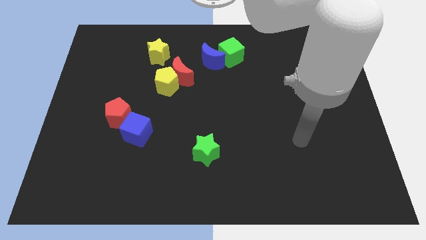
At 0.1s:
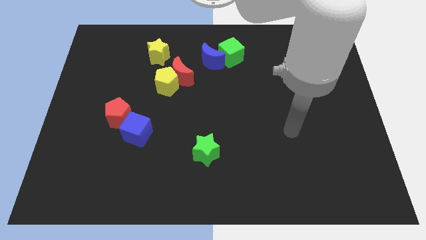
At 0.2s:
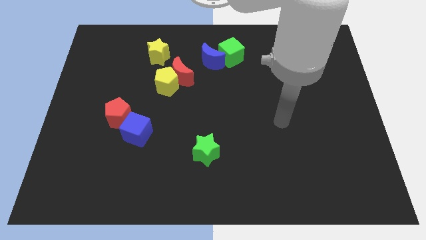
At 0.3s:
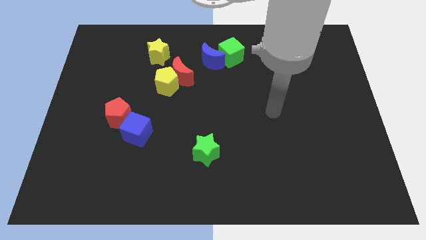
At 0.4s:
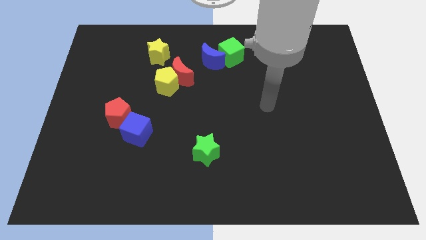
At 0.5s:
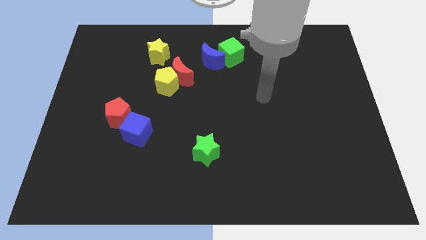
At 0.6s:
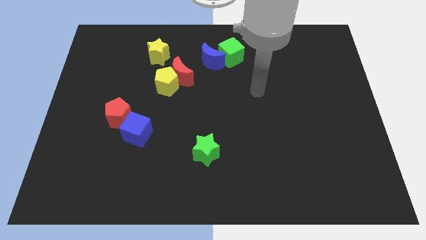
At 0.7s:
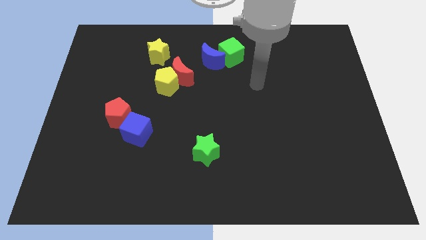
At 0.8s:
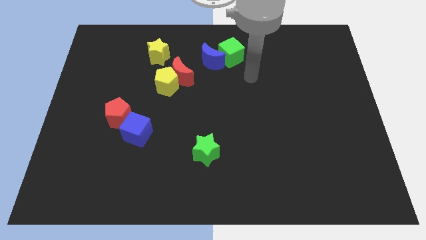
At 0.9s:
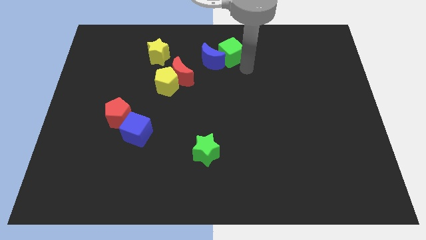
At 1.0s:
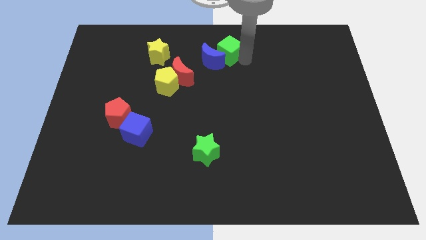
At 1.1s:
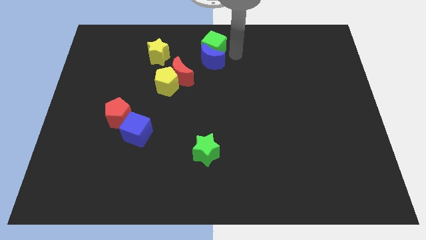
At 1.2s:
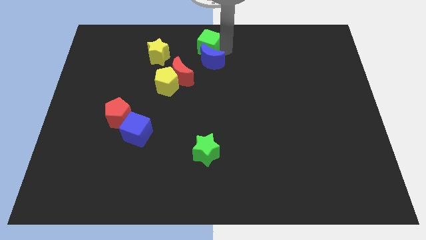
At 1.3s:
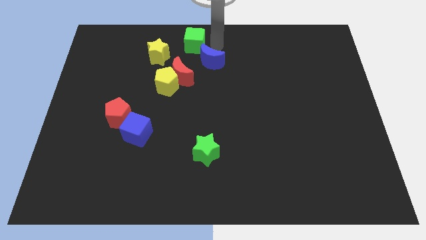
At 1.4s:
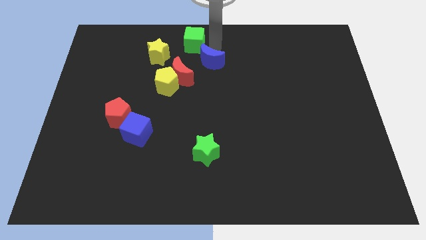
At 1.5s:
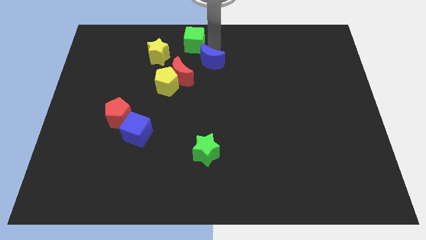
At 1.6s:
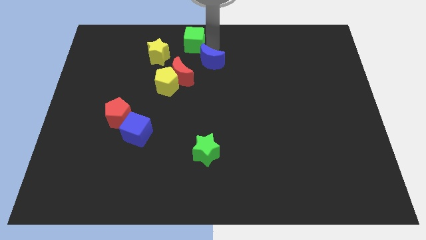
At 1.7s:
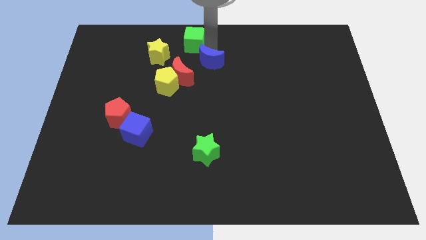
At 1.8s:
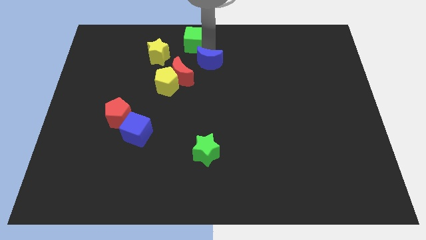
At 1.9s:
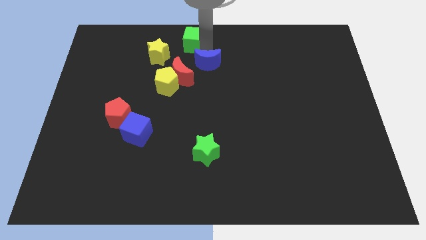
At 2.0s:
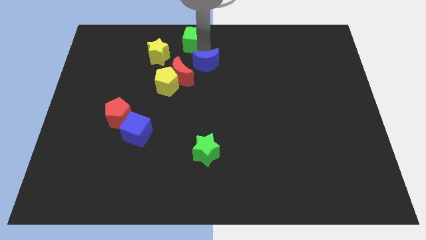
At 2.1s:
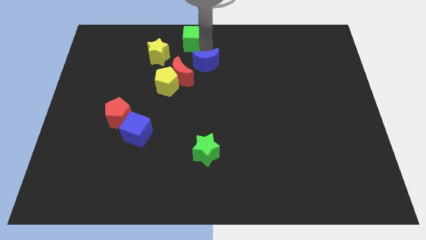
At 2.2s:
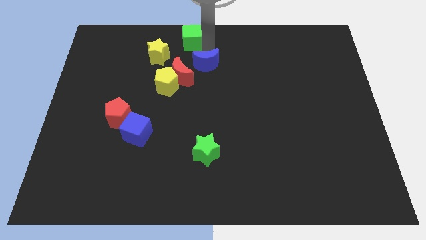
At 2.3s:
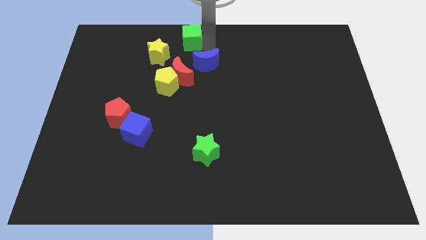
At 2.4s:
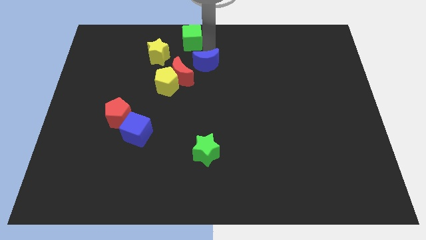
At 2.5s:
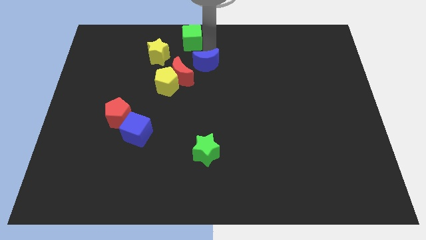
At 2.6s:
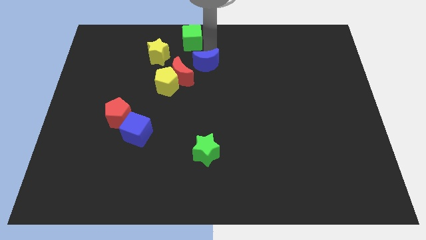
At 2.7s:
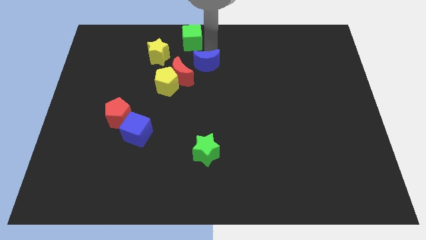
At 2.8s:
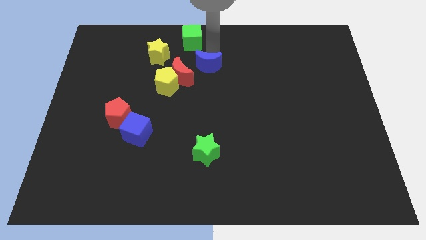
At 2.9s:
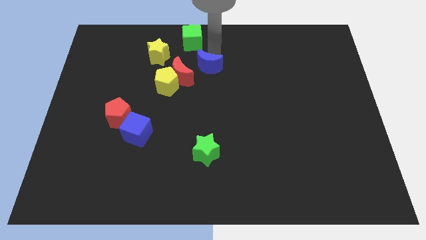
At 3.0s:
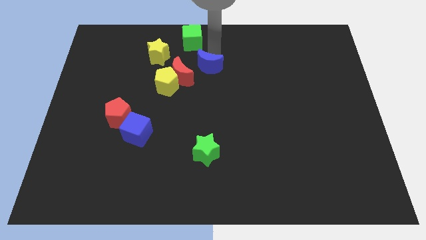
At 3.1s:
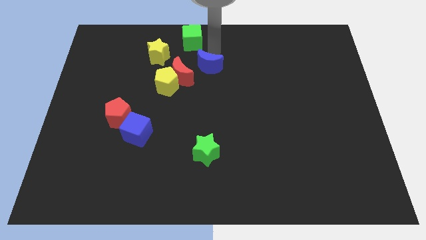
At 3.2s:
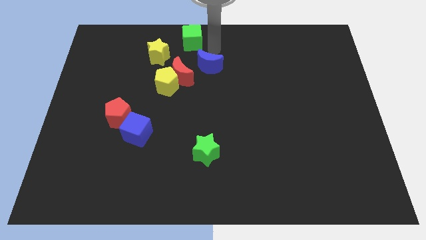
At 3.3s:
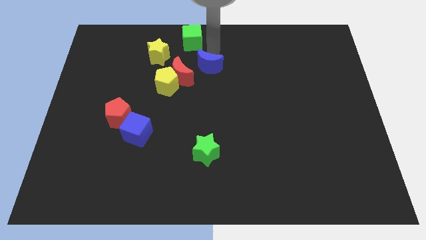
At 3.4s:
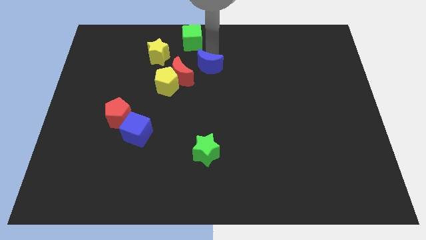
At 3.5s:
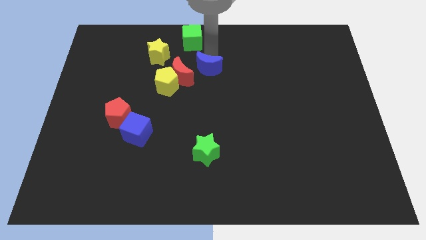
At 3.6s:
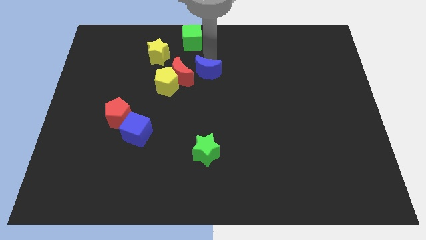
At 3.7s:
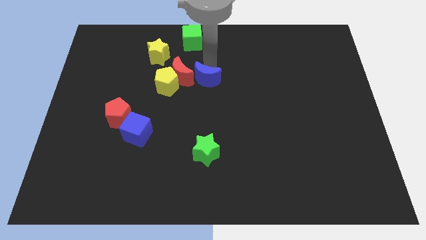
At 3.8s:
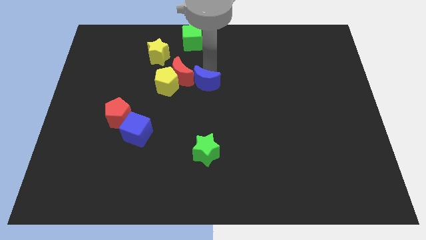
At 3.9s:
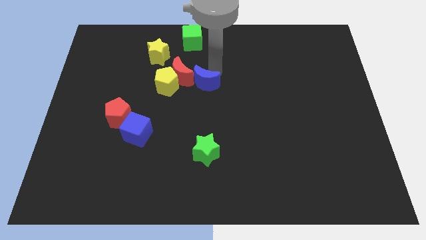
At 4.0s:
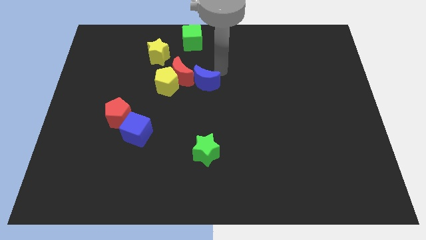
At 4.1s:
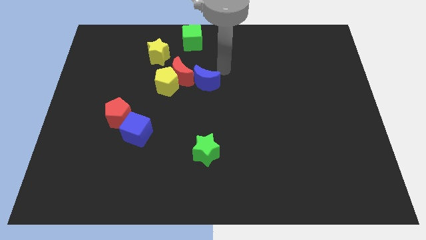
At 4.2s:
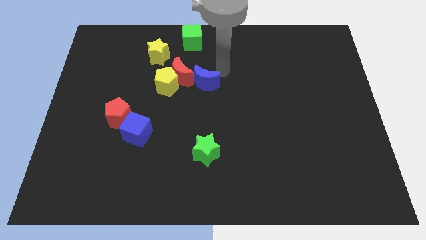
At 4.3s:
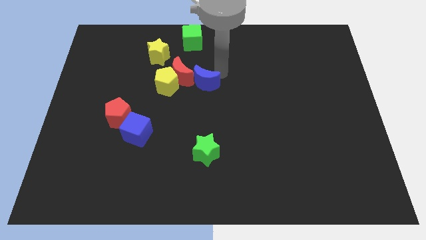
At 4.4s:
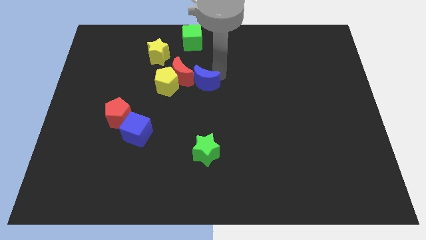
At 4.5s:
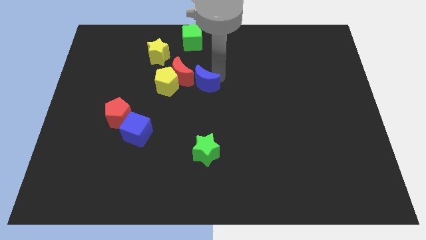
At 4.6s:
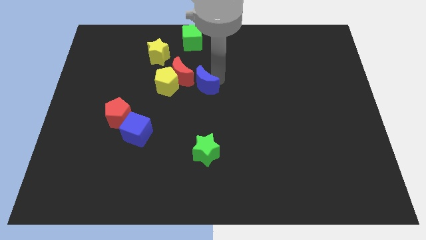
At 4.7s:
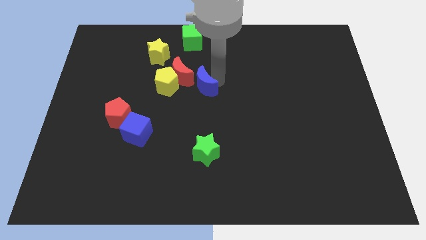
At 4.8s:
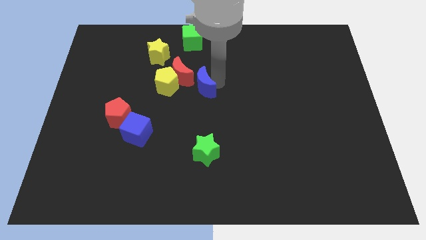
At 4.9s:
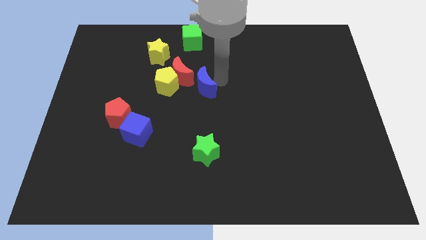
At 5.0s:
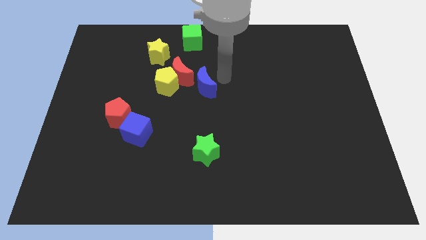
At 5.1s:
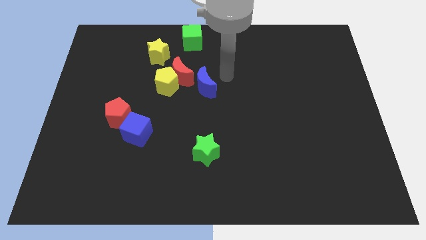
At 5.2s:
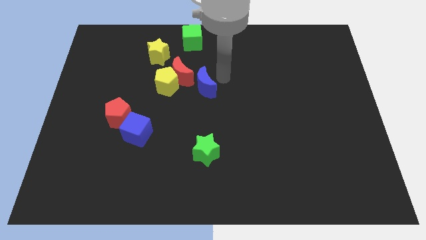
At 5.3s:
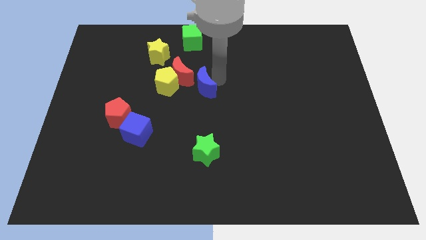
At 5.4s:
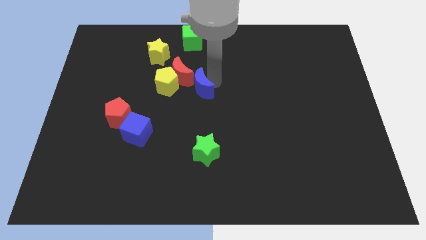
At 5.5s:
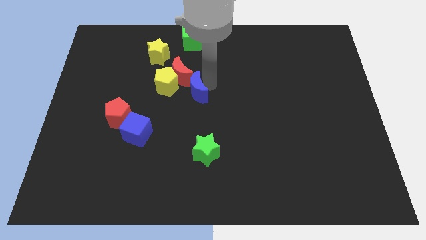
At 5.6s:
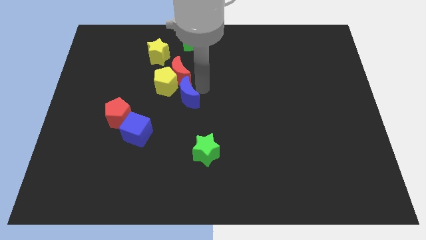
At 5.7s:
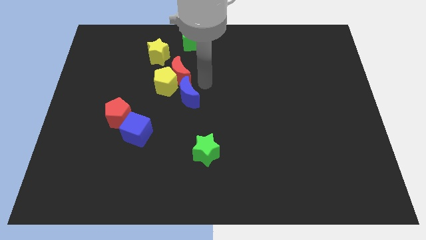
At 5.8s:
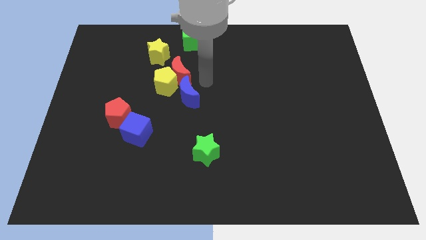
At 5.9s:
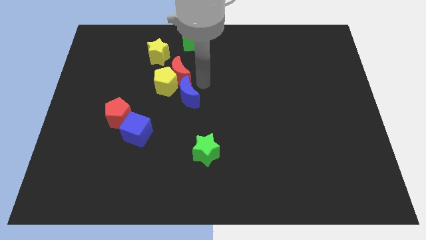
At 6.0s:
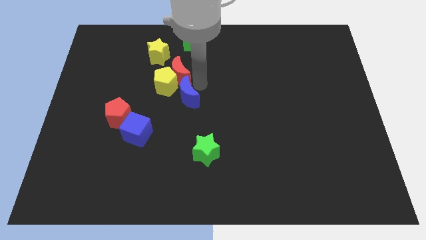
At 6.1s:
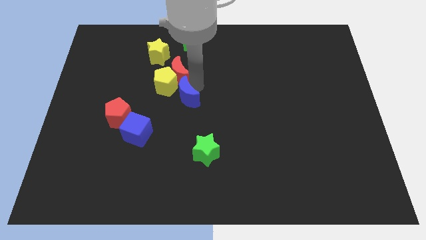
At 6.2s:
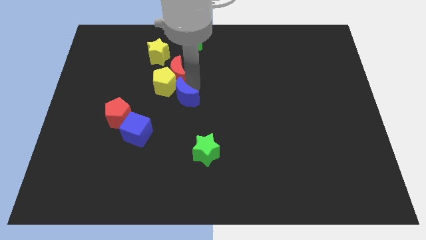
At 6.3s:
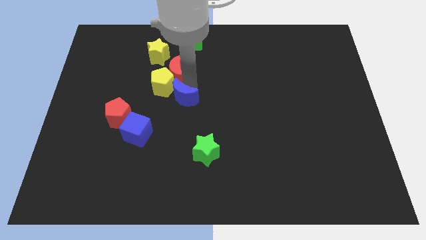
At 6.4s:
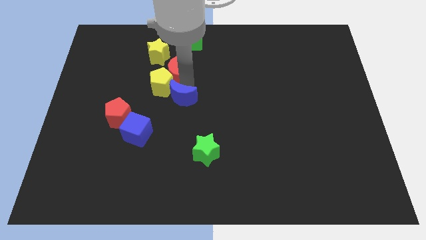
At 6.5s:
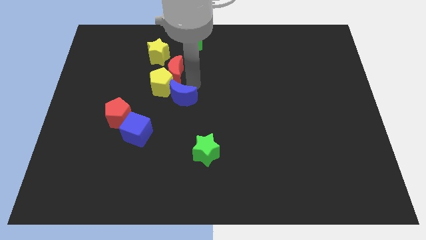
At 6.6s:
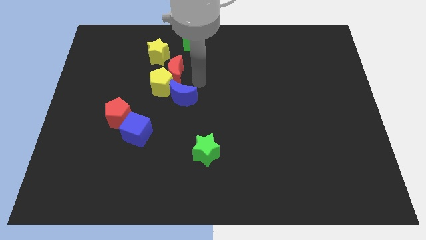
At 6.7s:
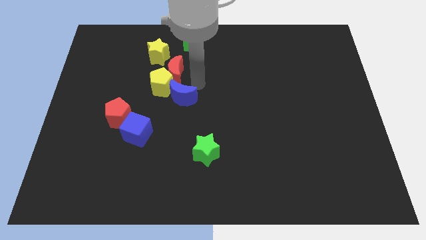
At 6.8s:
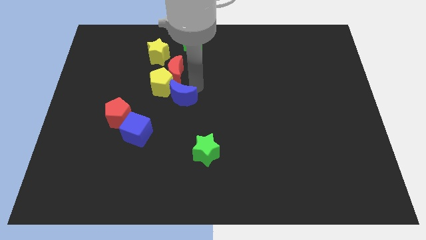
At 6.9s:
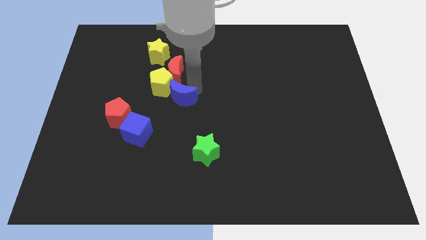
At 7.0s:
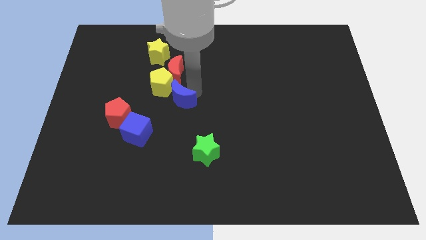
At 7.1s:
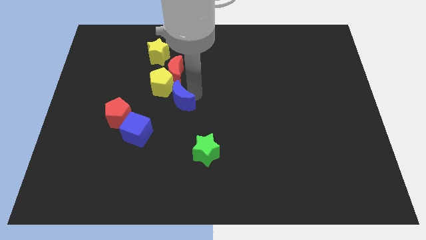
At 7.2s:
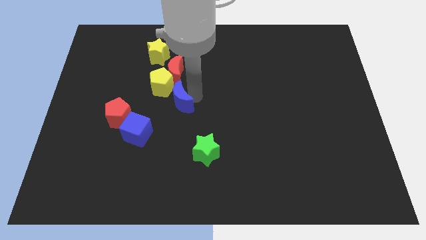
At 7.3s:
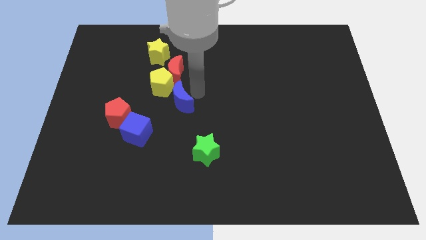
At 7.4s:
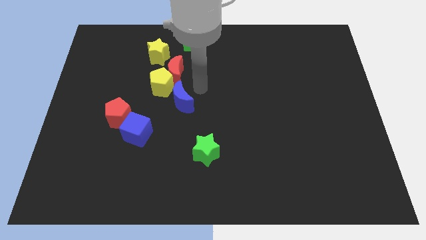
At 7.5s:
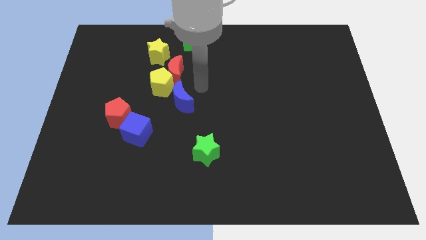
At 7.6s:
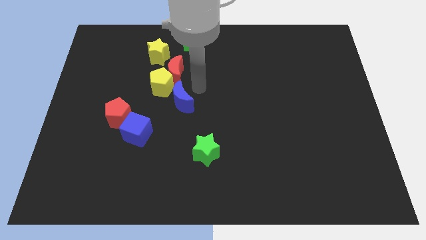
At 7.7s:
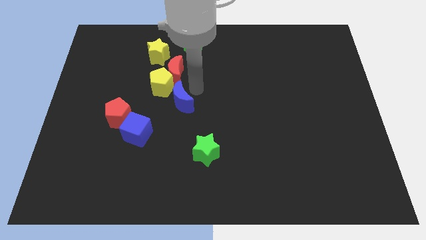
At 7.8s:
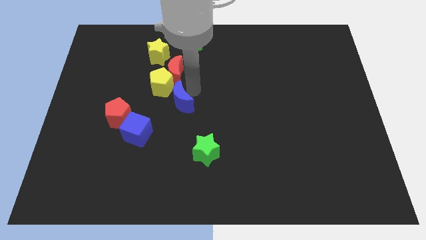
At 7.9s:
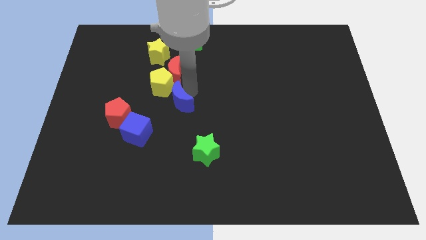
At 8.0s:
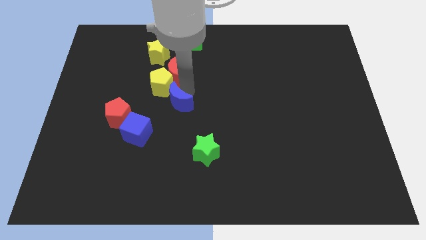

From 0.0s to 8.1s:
slide the blue moon below the yellow pentagon
